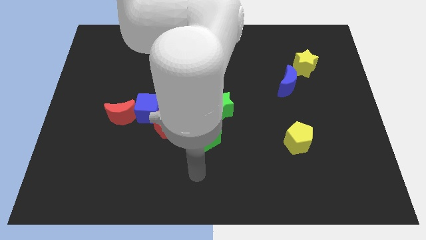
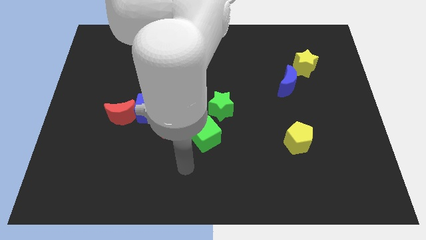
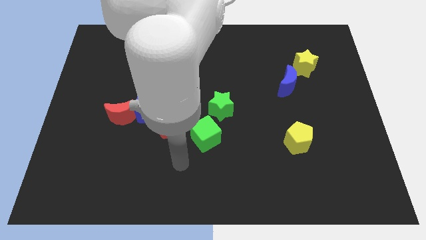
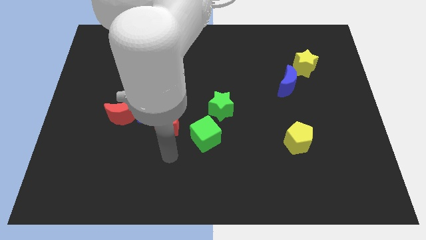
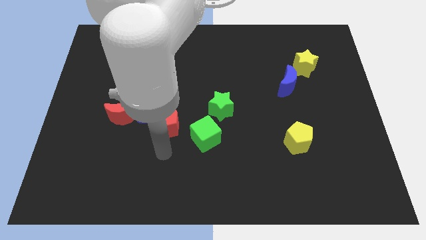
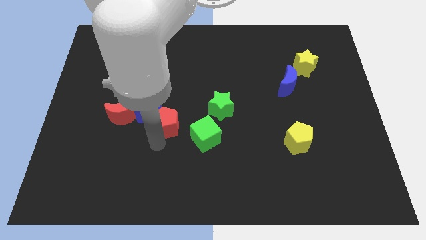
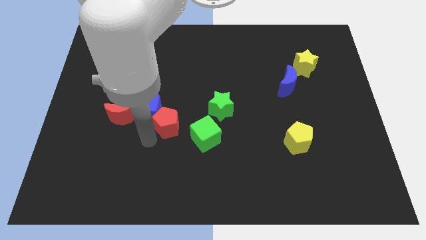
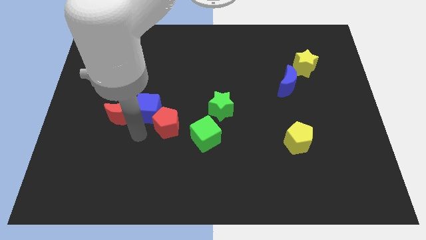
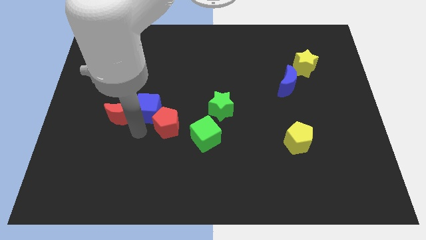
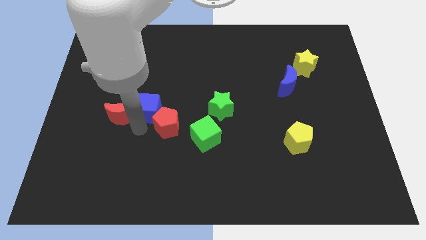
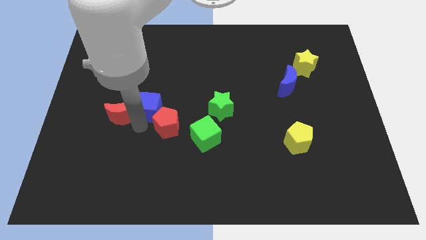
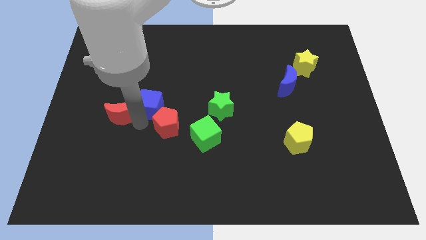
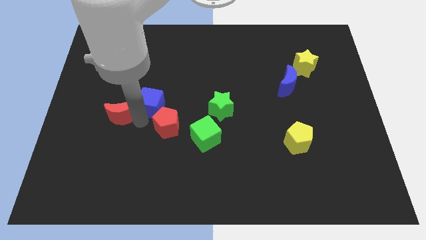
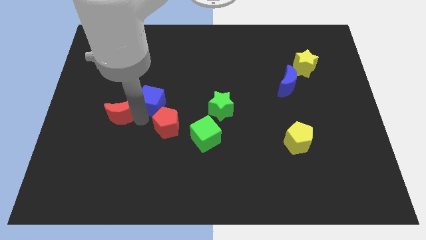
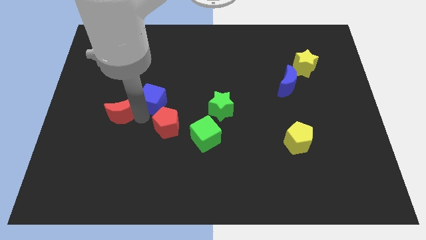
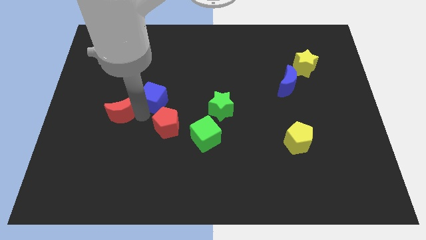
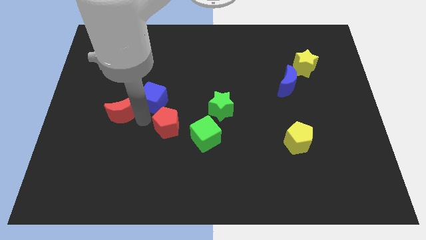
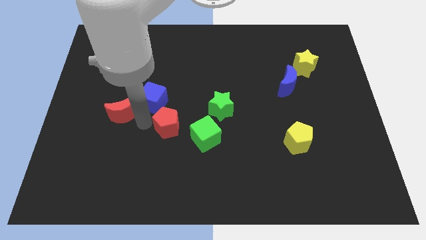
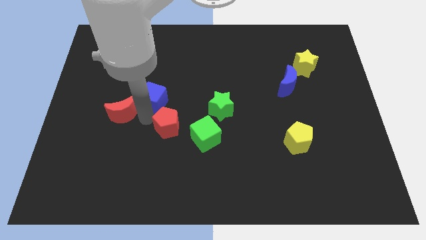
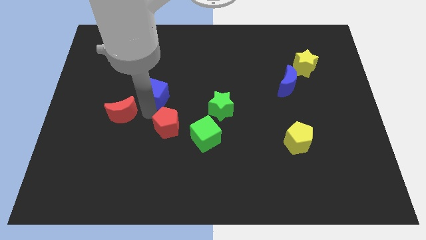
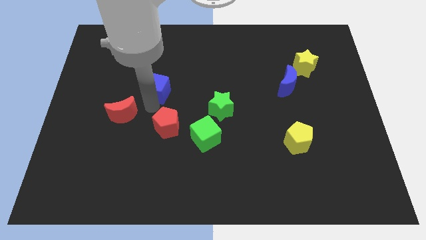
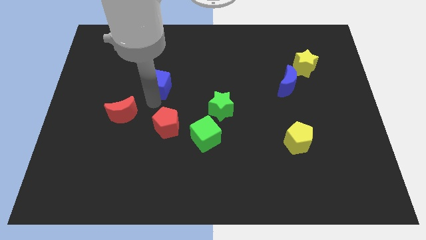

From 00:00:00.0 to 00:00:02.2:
separate the blue cube from the red pentagon and red moon

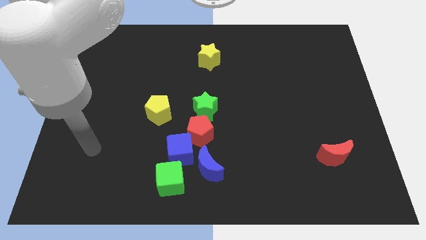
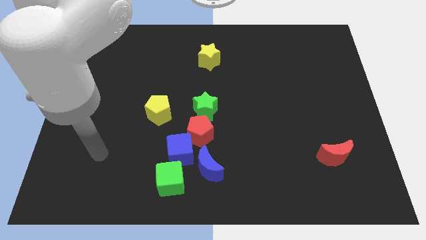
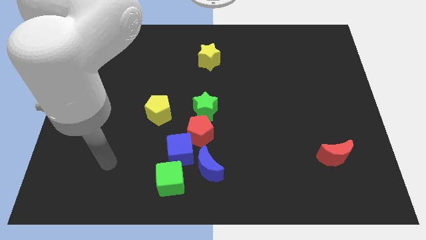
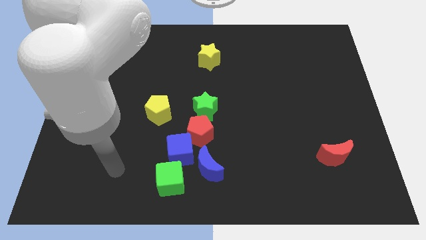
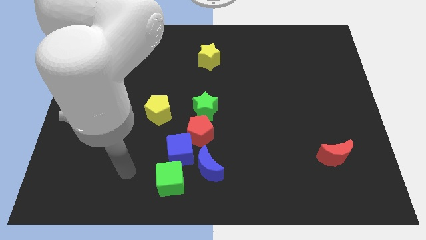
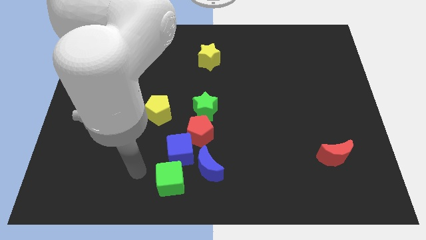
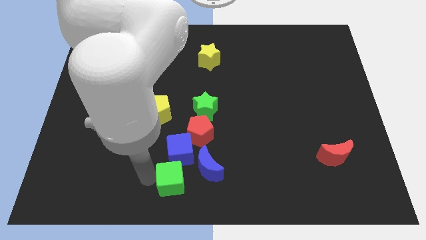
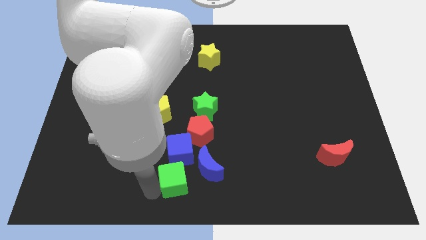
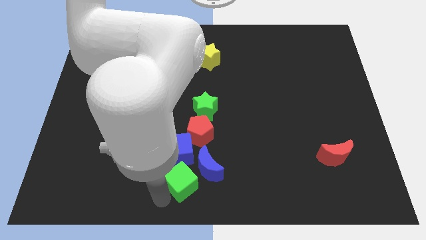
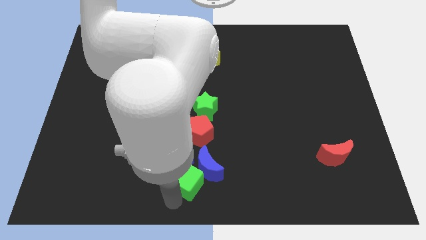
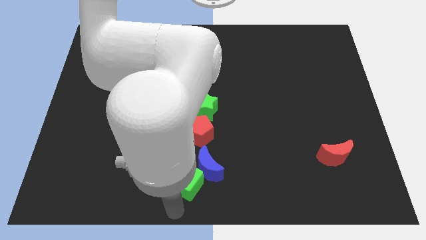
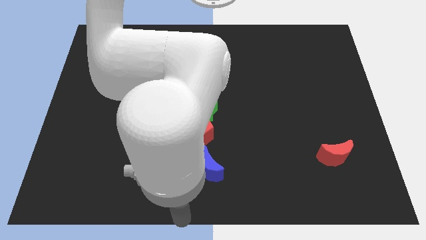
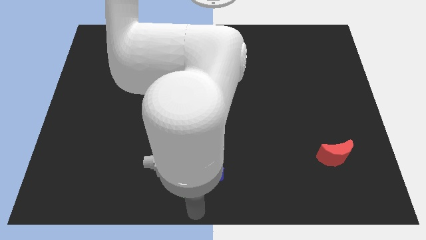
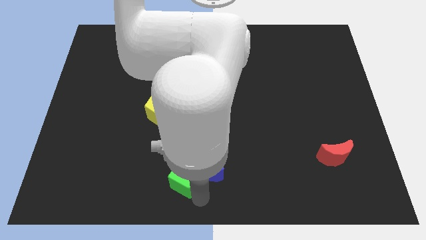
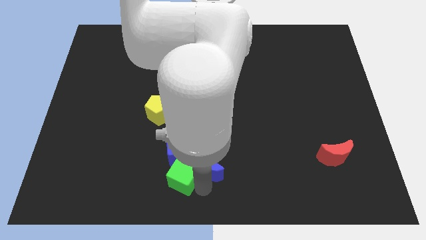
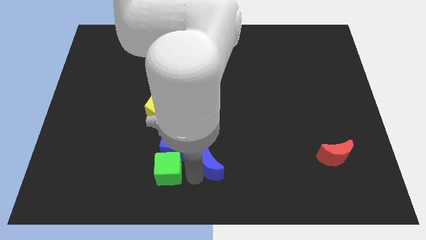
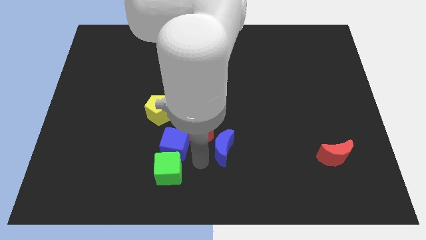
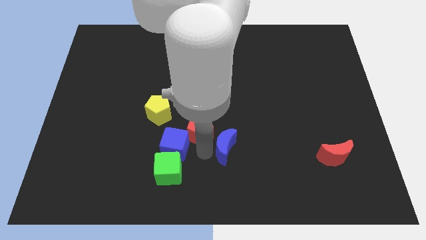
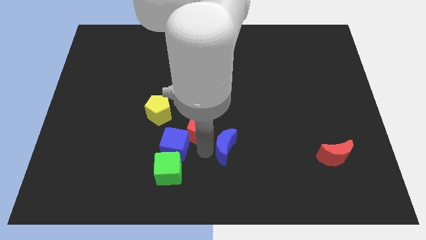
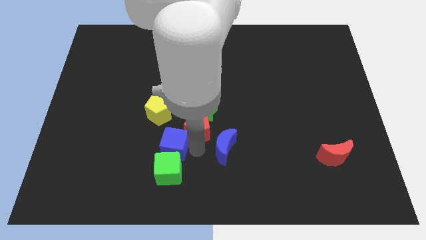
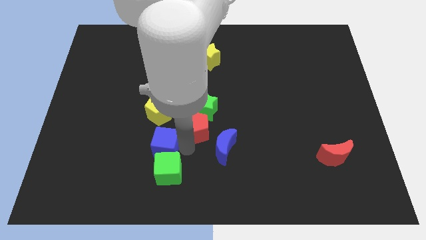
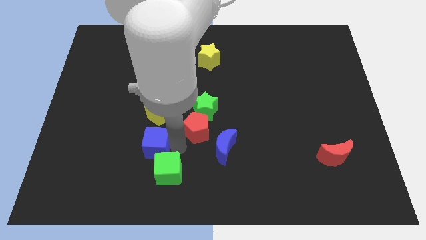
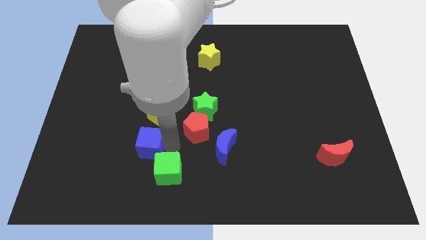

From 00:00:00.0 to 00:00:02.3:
separate the blue cube from the red pentagon, green cube, and blue moon

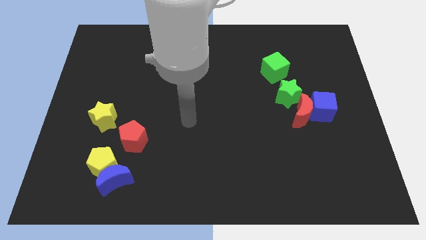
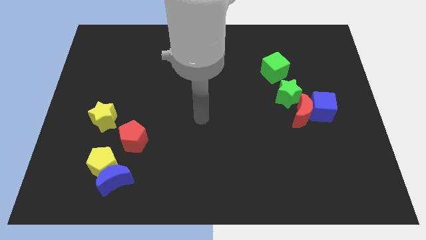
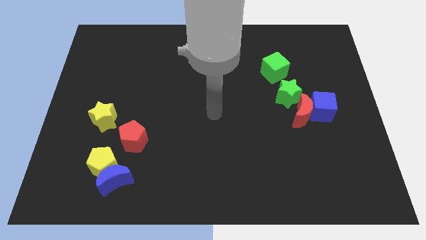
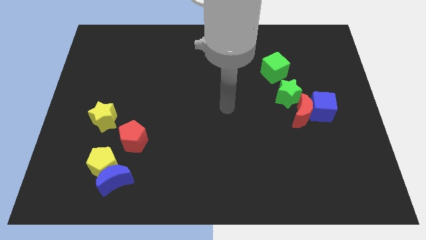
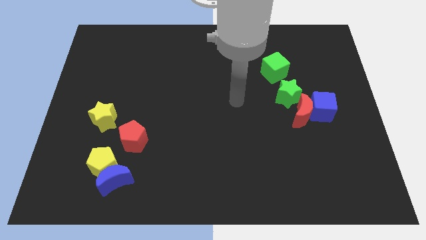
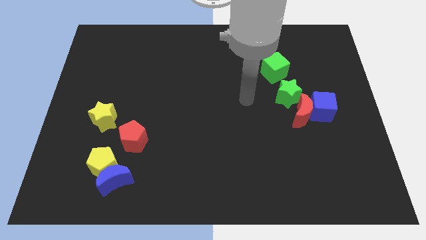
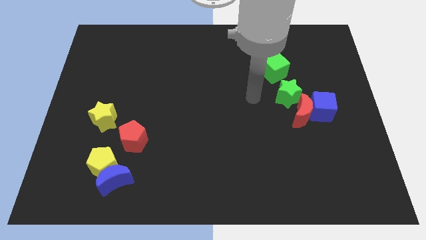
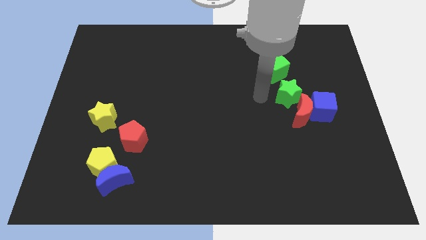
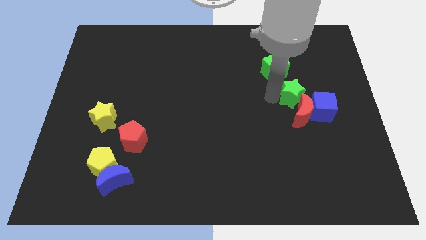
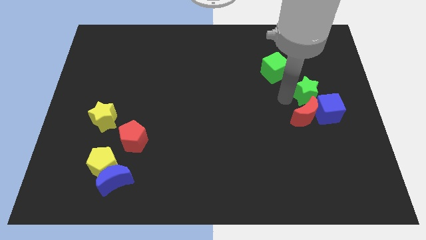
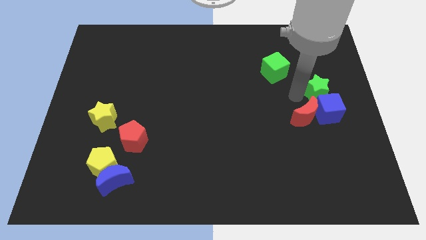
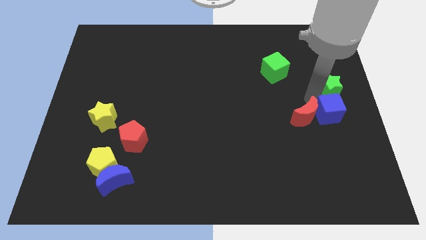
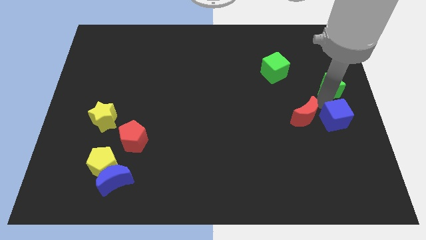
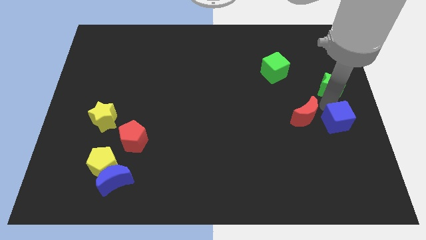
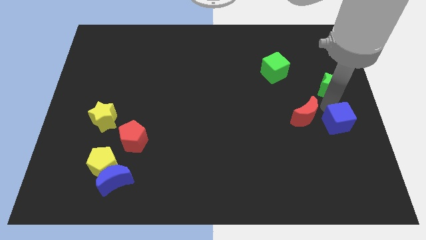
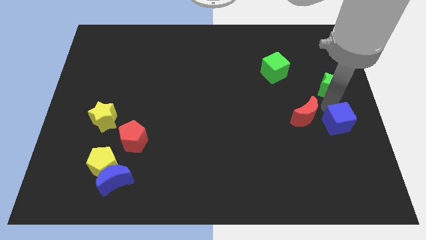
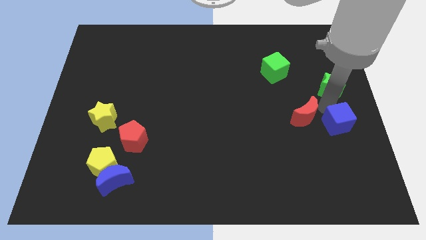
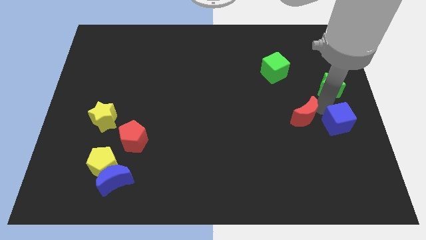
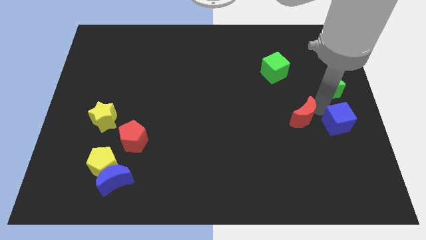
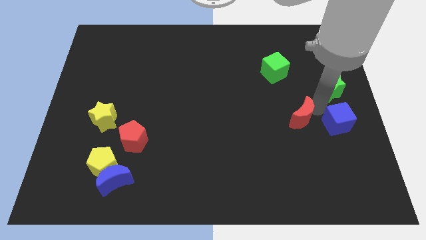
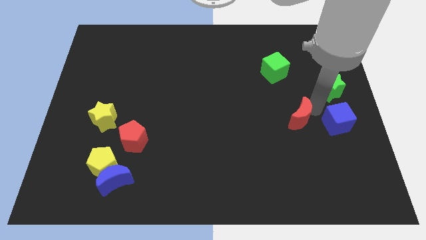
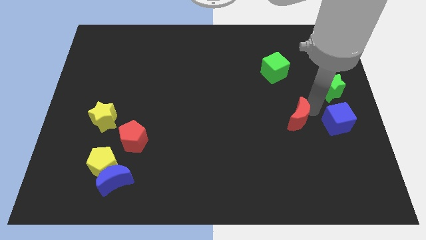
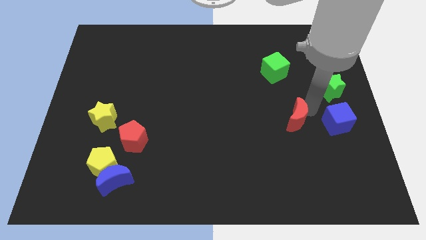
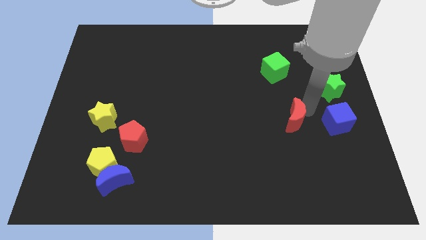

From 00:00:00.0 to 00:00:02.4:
separate the red moon from the blue cube and green star

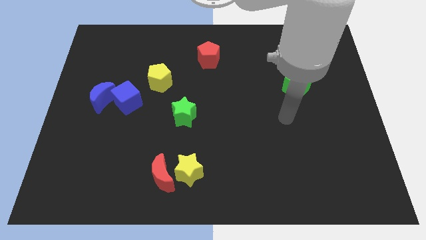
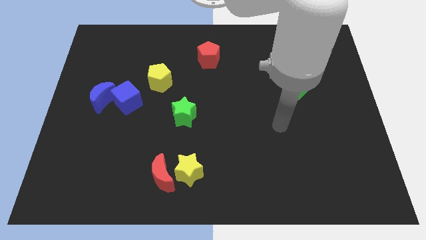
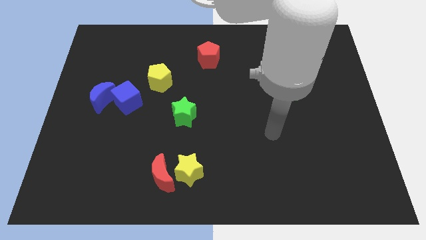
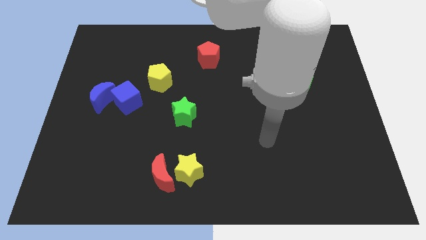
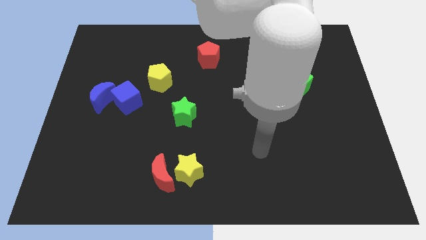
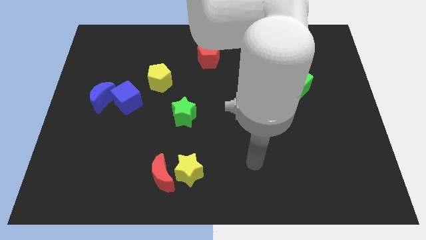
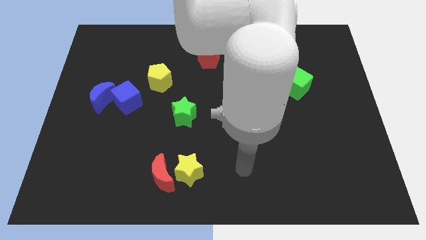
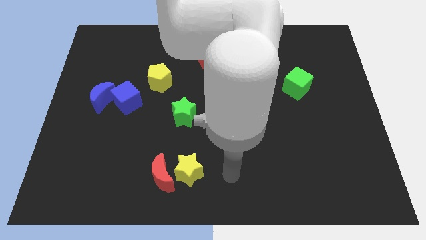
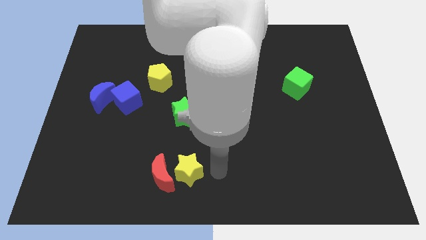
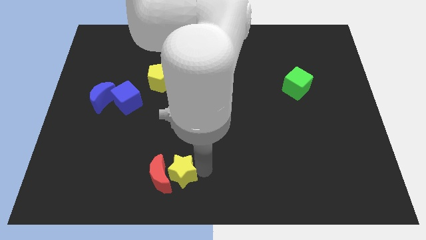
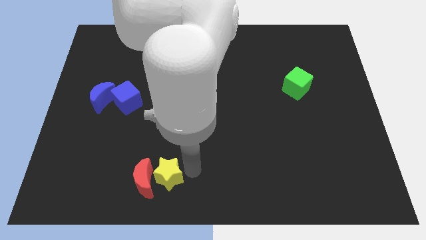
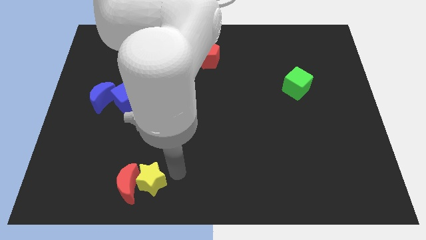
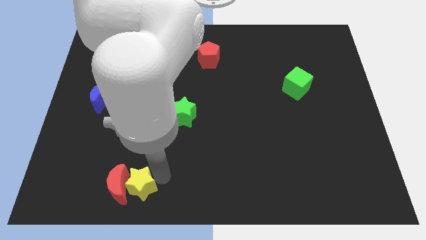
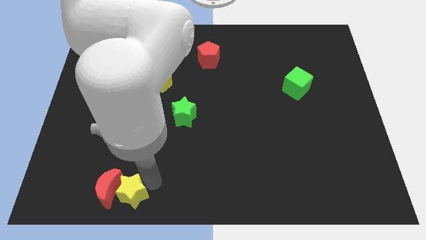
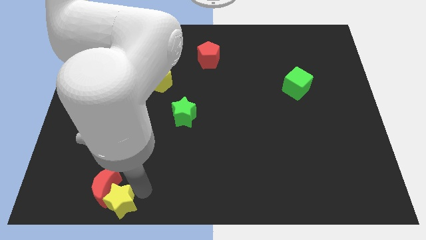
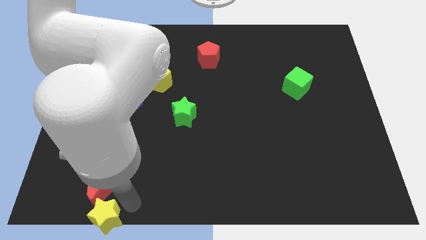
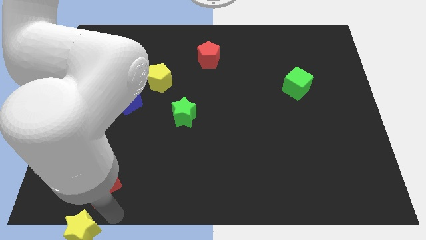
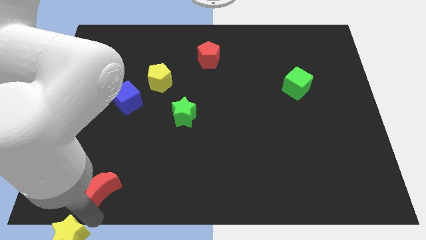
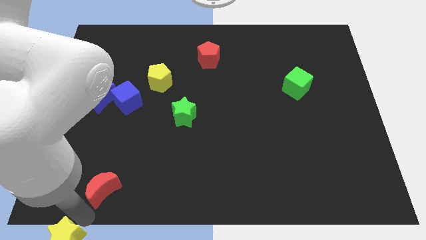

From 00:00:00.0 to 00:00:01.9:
pull the red moon apart from the yellow star

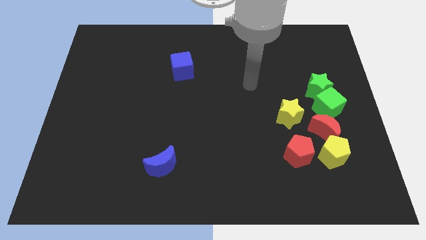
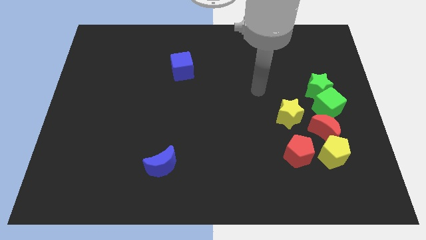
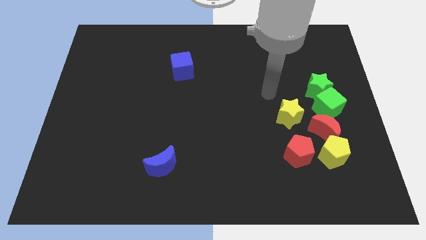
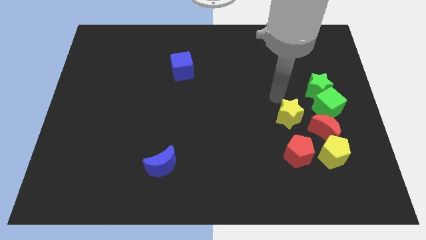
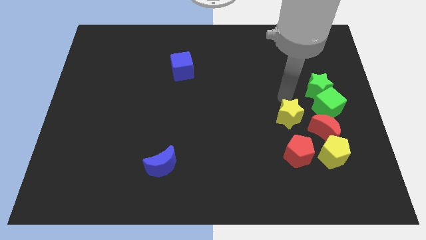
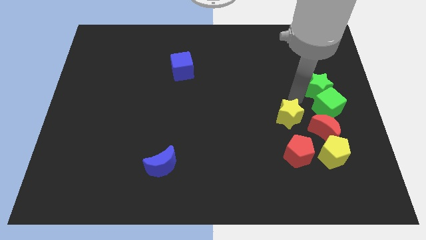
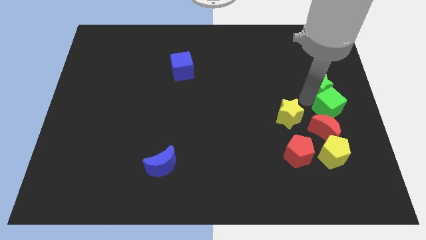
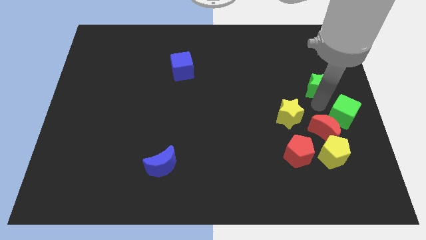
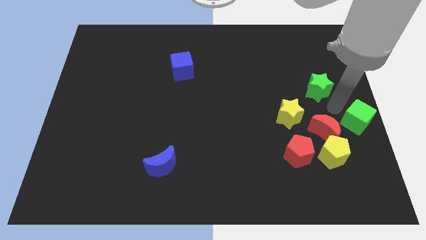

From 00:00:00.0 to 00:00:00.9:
separate the green star from the green cube
